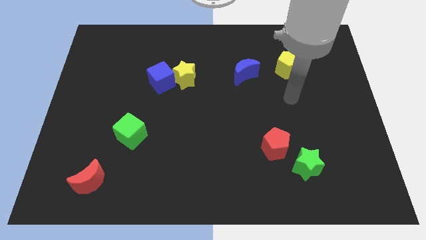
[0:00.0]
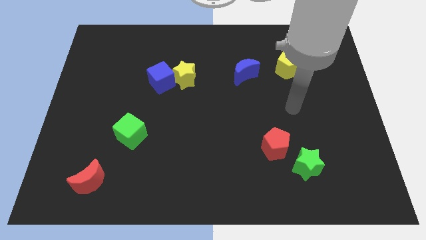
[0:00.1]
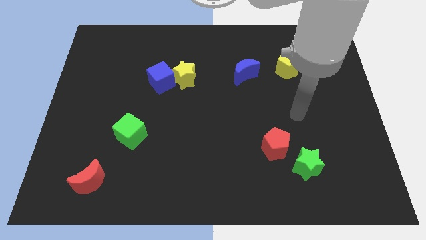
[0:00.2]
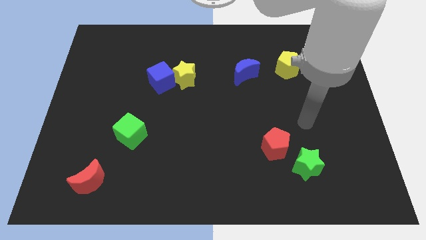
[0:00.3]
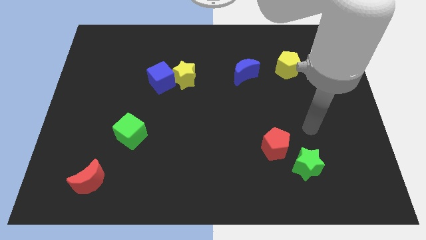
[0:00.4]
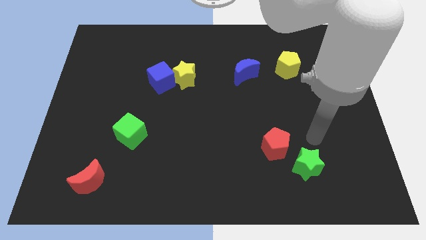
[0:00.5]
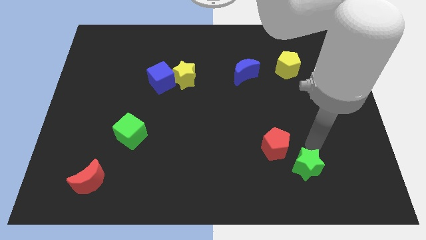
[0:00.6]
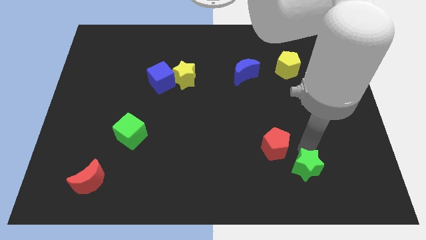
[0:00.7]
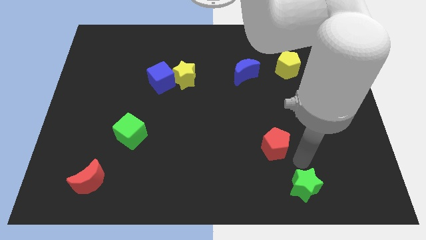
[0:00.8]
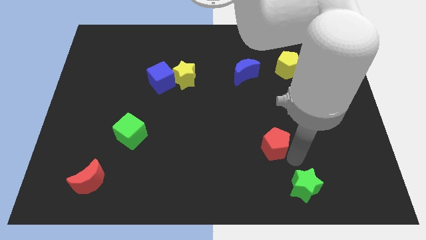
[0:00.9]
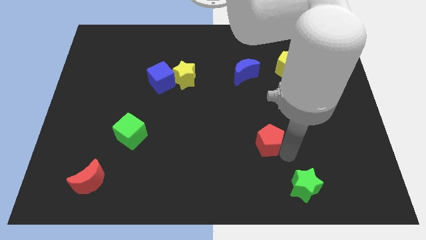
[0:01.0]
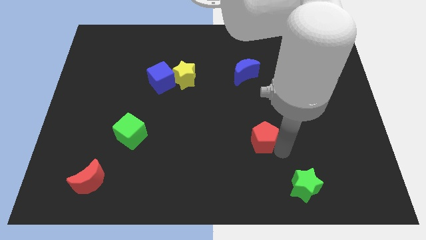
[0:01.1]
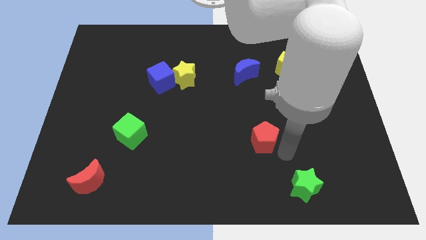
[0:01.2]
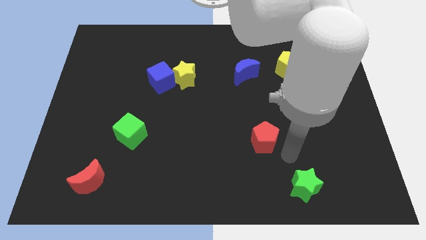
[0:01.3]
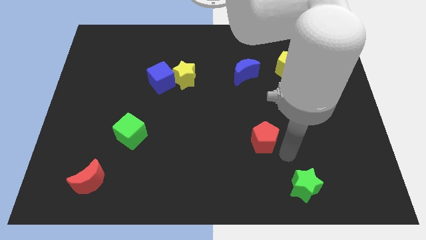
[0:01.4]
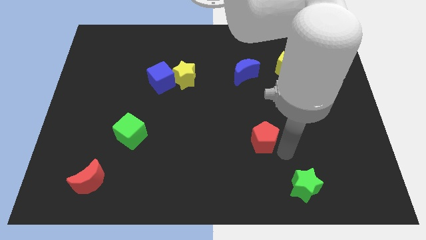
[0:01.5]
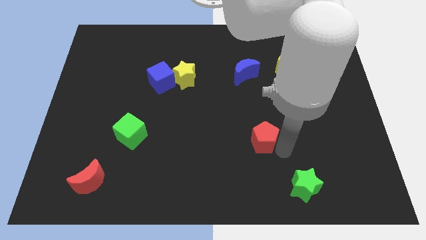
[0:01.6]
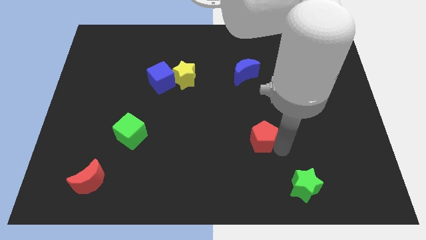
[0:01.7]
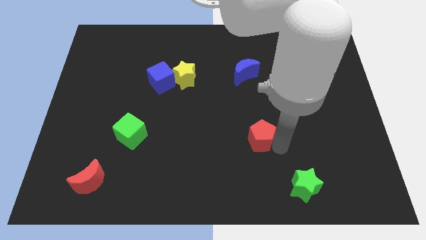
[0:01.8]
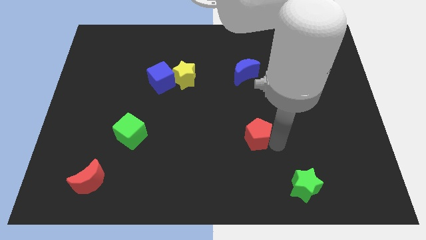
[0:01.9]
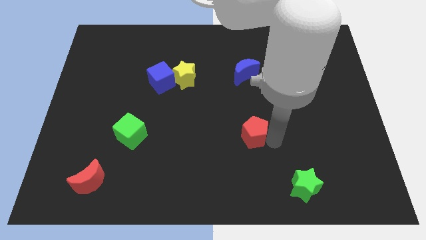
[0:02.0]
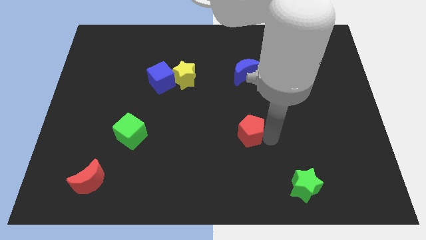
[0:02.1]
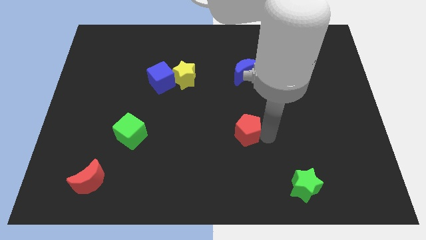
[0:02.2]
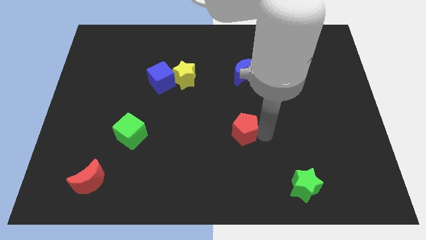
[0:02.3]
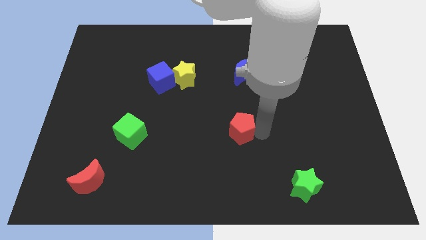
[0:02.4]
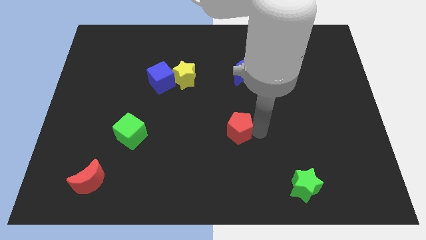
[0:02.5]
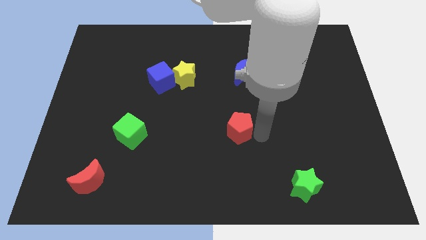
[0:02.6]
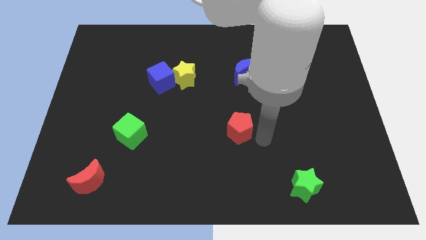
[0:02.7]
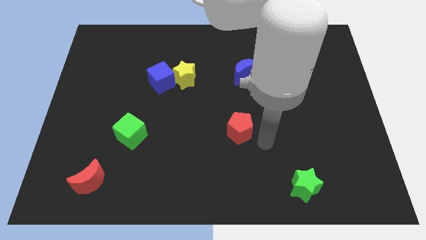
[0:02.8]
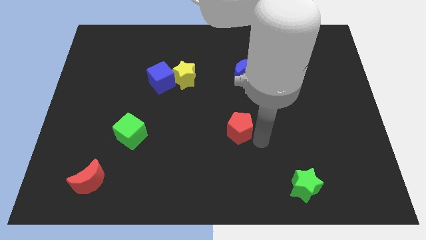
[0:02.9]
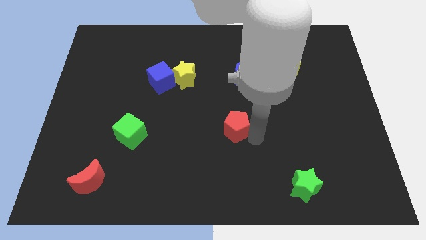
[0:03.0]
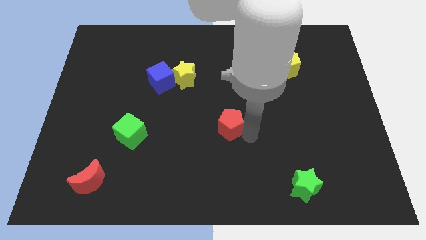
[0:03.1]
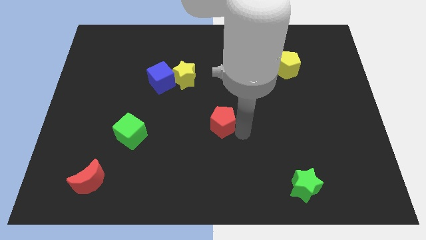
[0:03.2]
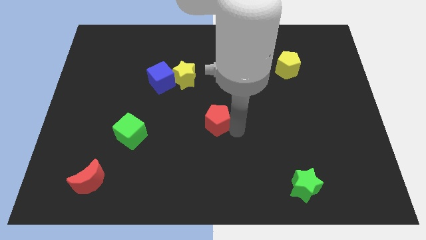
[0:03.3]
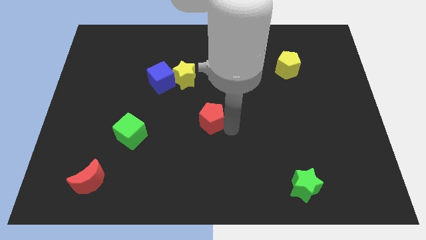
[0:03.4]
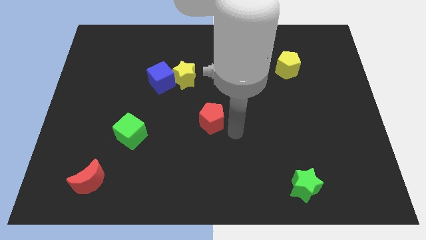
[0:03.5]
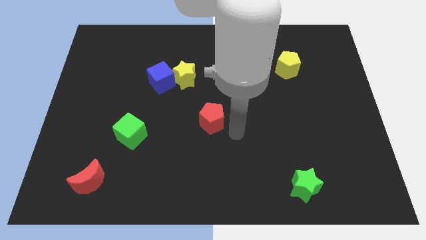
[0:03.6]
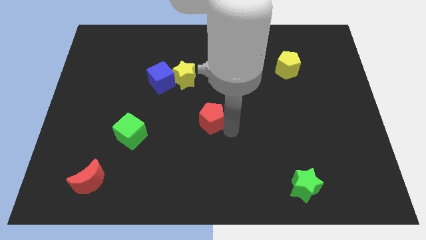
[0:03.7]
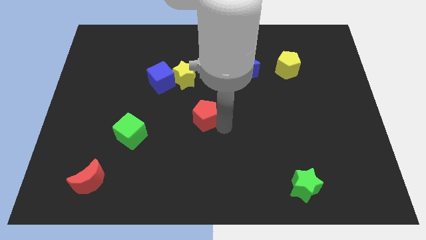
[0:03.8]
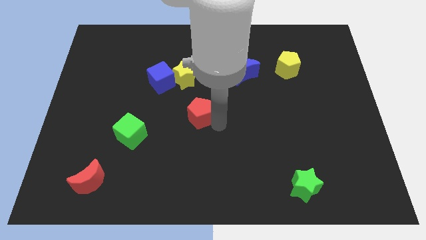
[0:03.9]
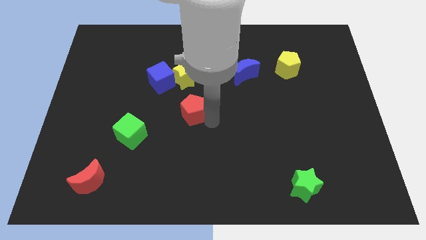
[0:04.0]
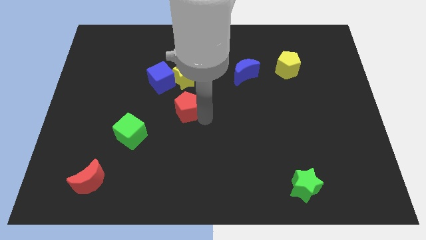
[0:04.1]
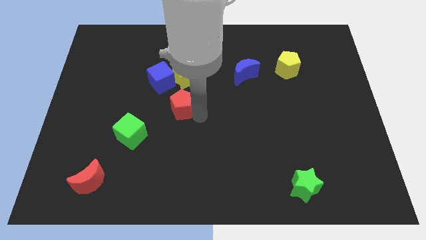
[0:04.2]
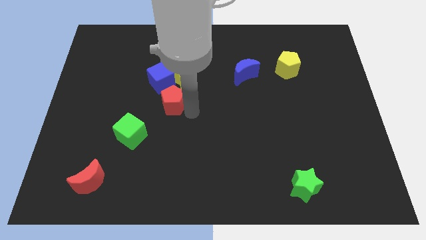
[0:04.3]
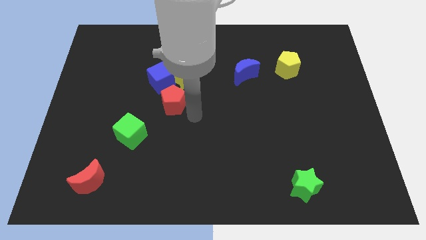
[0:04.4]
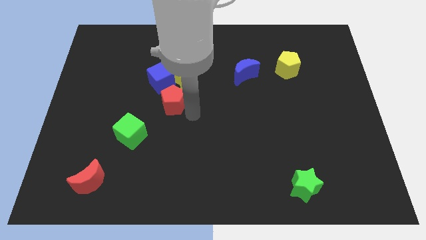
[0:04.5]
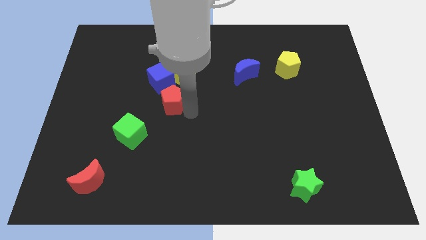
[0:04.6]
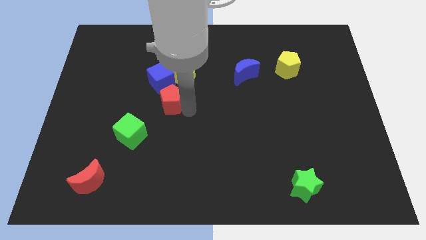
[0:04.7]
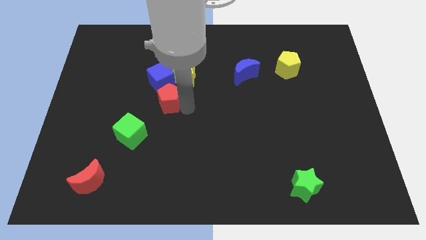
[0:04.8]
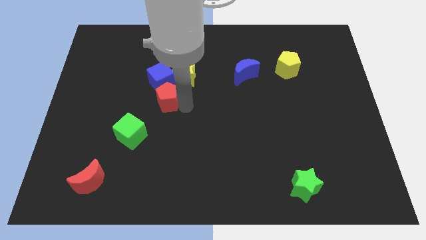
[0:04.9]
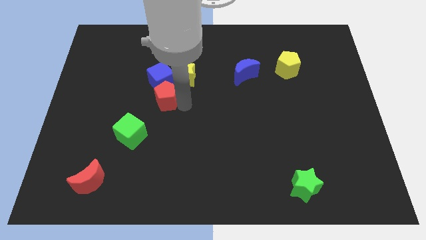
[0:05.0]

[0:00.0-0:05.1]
put the red pentagon next to the blue cube

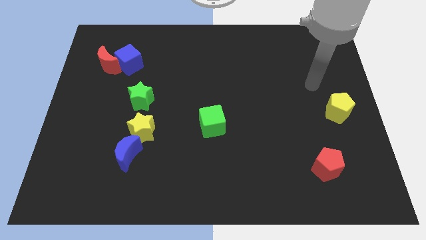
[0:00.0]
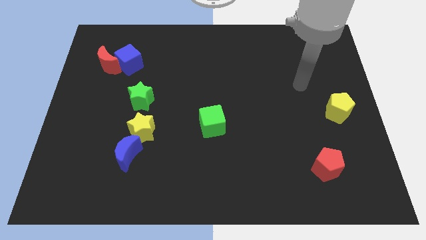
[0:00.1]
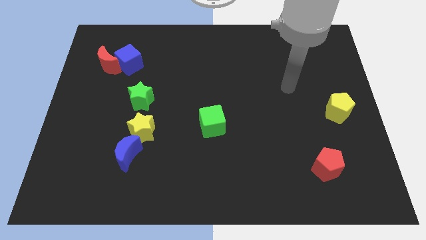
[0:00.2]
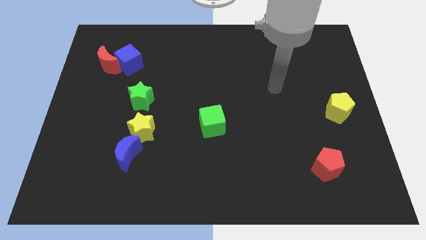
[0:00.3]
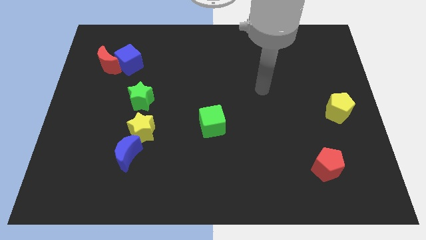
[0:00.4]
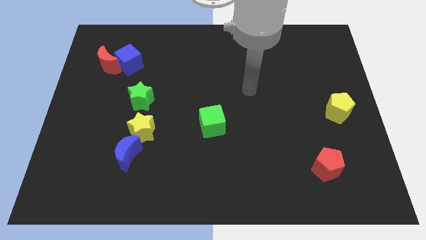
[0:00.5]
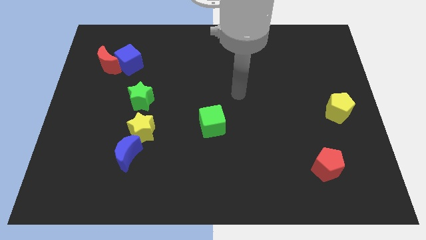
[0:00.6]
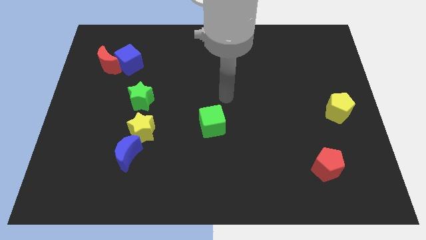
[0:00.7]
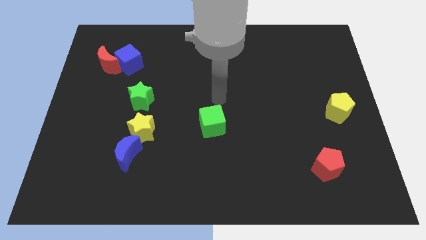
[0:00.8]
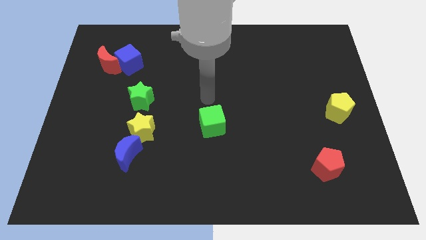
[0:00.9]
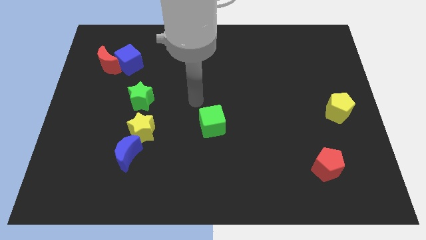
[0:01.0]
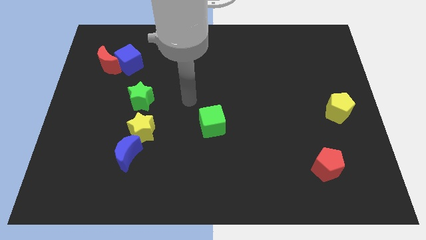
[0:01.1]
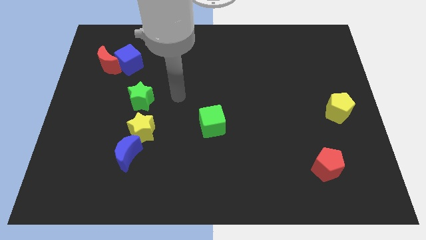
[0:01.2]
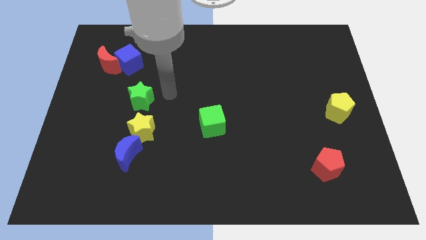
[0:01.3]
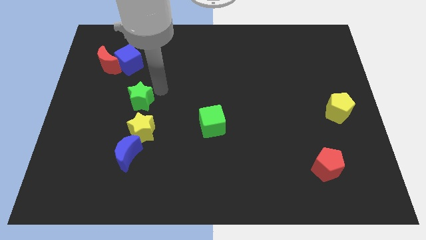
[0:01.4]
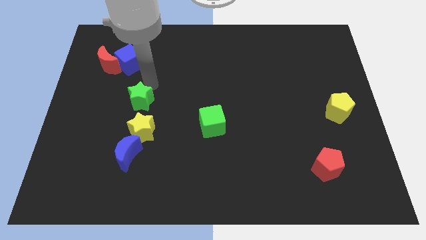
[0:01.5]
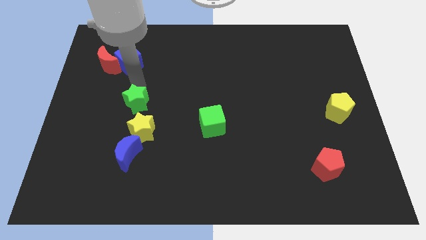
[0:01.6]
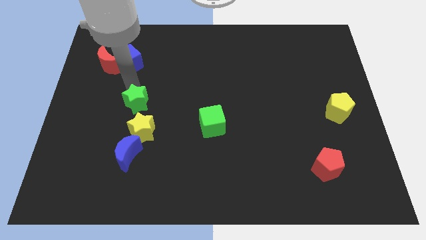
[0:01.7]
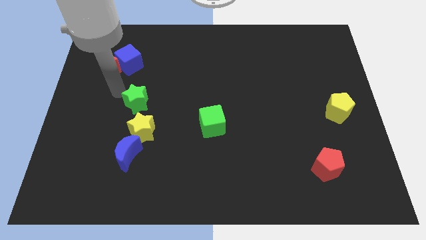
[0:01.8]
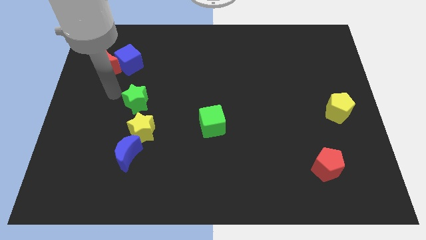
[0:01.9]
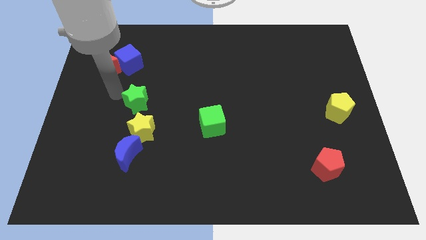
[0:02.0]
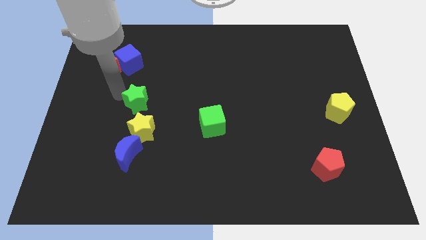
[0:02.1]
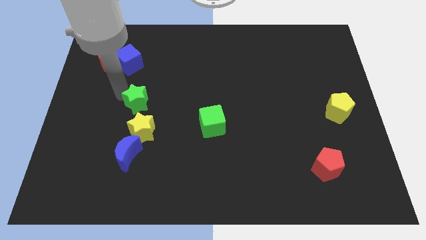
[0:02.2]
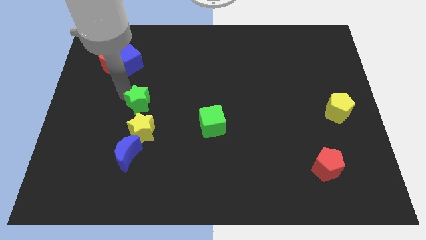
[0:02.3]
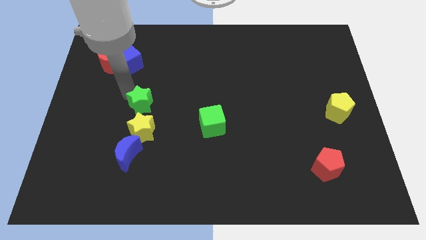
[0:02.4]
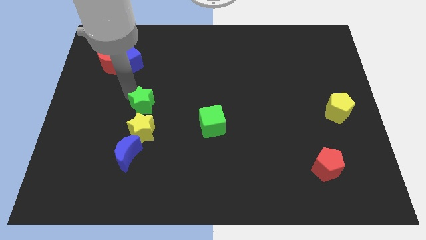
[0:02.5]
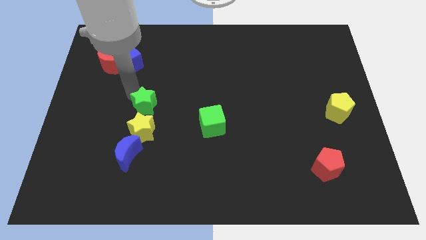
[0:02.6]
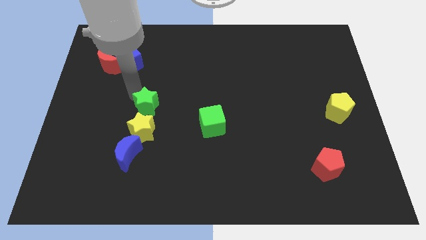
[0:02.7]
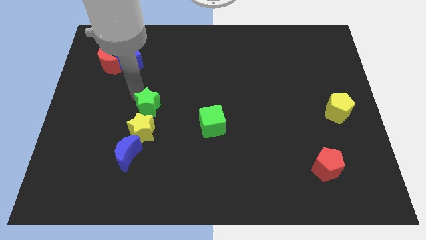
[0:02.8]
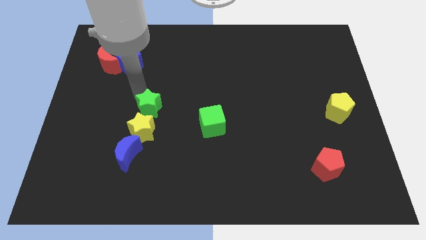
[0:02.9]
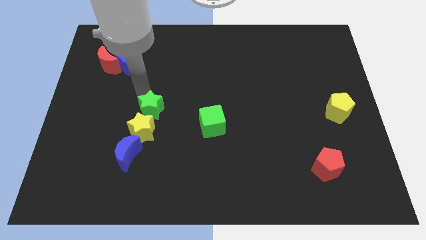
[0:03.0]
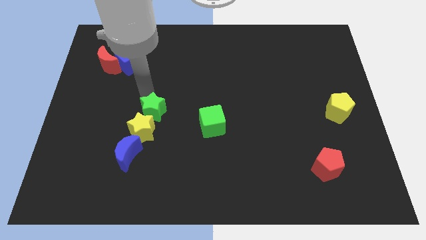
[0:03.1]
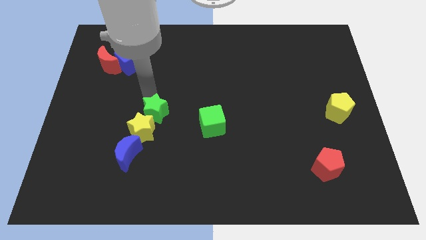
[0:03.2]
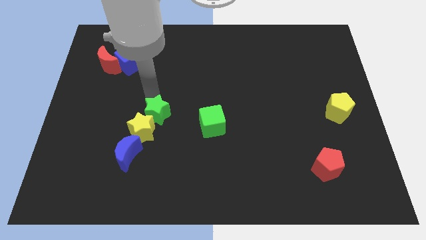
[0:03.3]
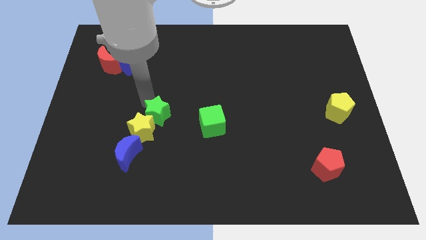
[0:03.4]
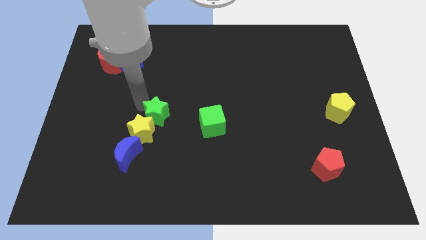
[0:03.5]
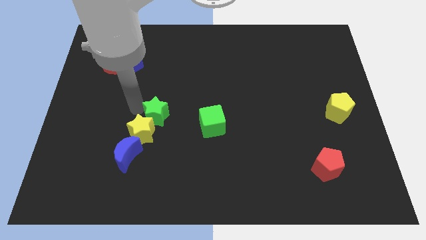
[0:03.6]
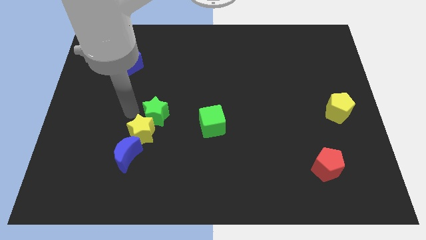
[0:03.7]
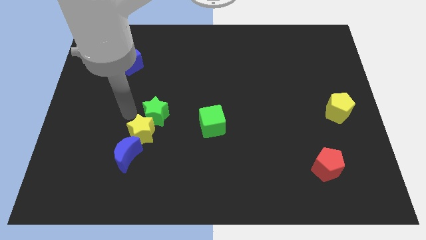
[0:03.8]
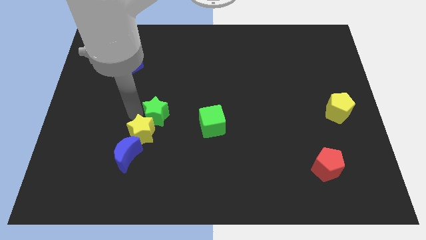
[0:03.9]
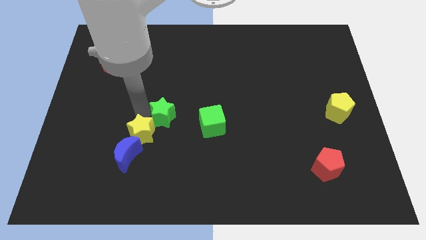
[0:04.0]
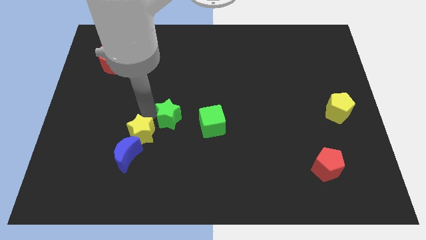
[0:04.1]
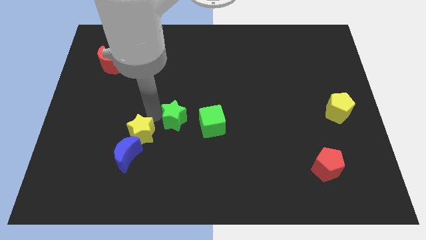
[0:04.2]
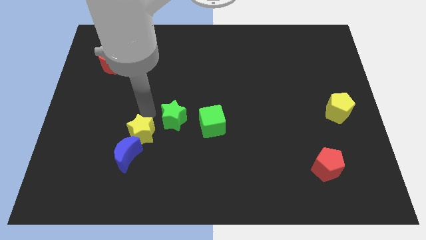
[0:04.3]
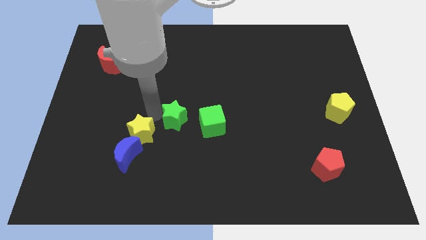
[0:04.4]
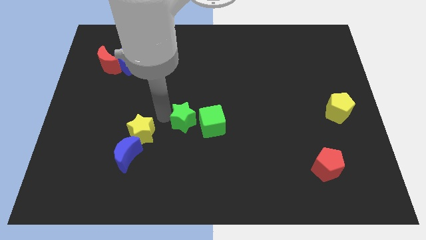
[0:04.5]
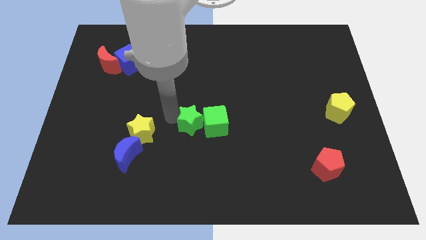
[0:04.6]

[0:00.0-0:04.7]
move the green star to the green cube
